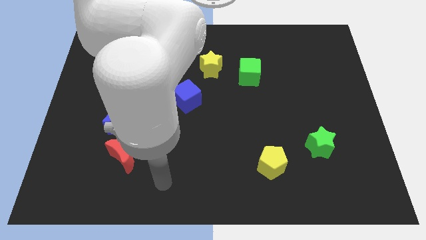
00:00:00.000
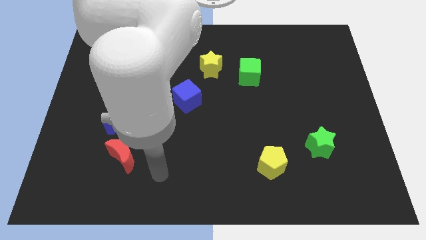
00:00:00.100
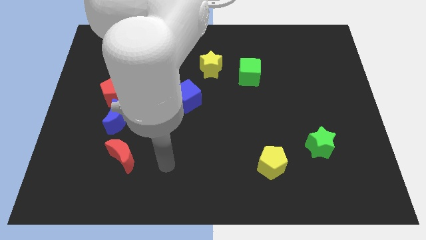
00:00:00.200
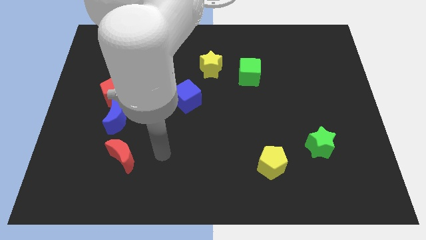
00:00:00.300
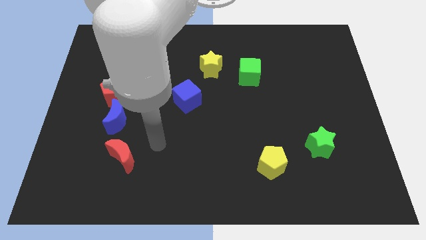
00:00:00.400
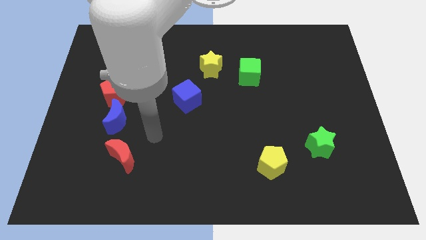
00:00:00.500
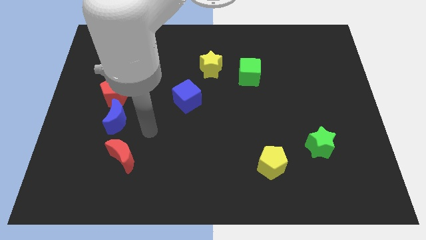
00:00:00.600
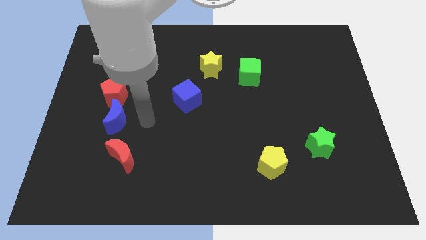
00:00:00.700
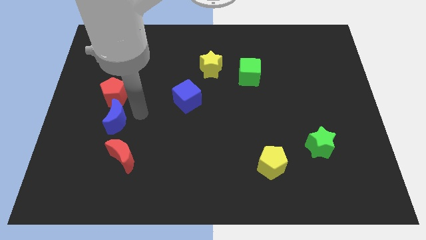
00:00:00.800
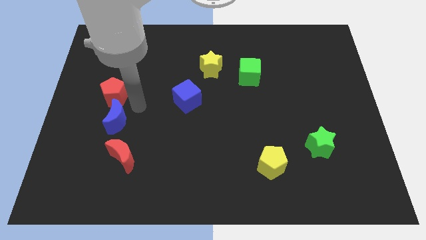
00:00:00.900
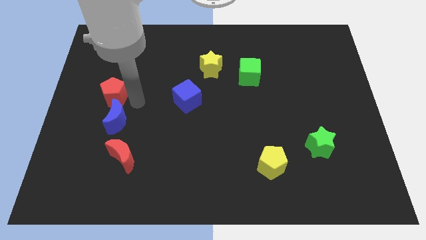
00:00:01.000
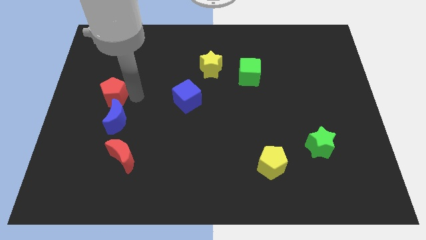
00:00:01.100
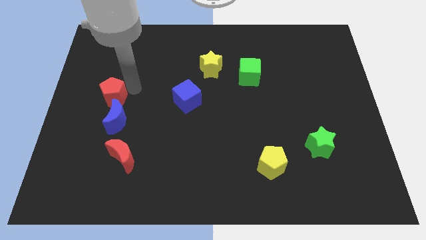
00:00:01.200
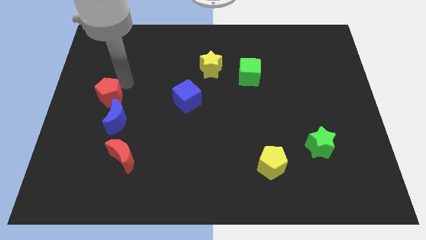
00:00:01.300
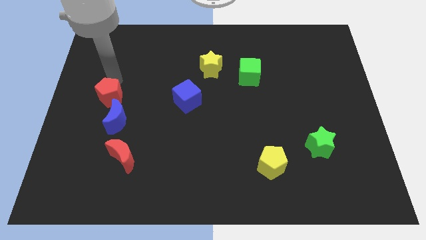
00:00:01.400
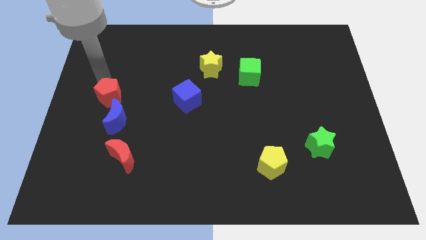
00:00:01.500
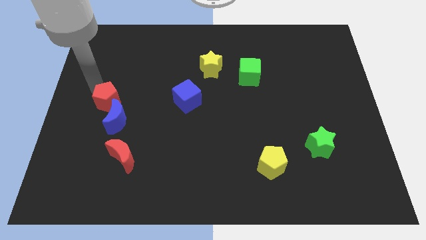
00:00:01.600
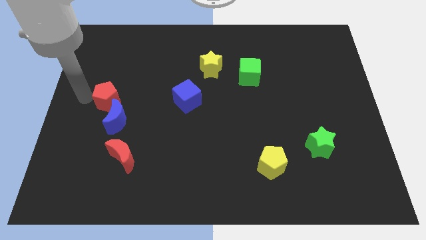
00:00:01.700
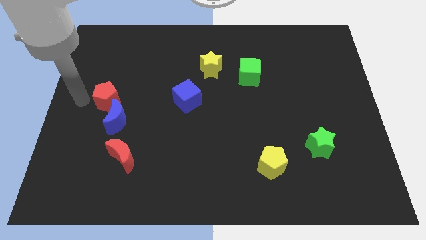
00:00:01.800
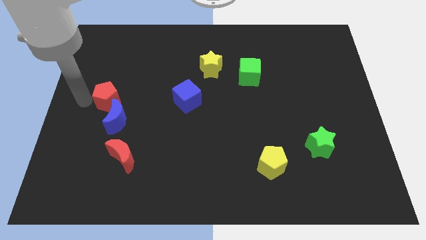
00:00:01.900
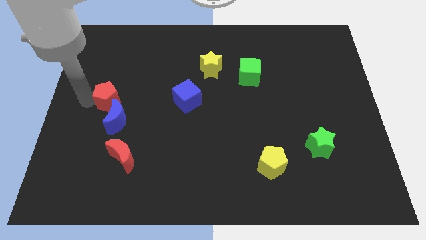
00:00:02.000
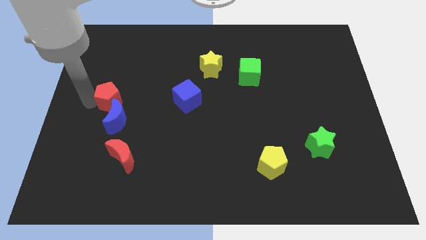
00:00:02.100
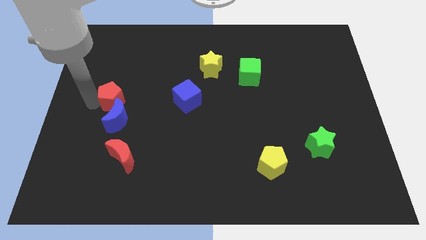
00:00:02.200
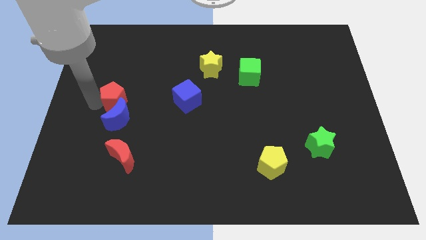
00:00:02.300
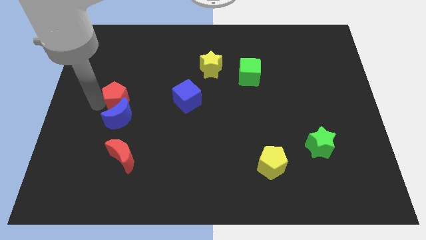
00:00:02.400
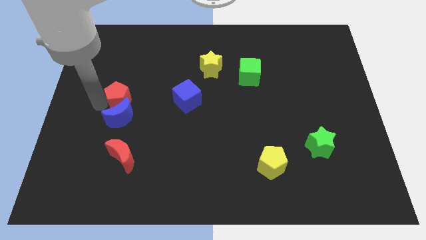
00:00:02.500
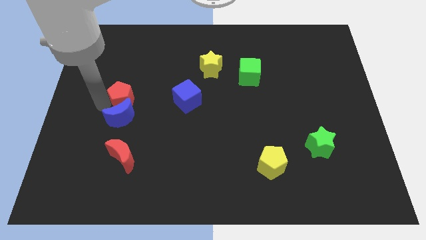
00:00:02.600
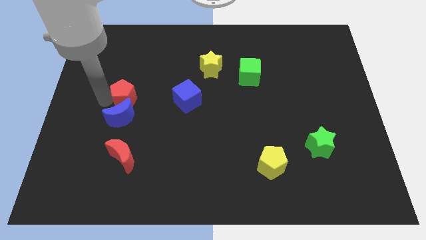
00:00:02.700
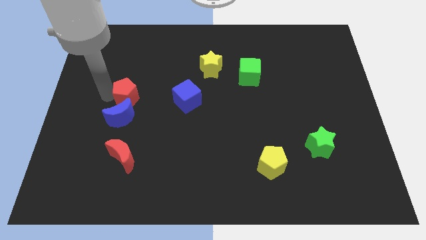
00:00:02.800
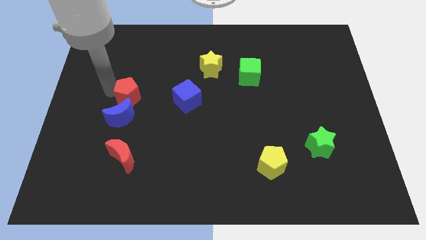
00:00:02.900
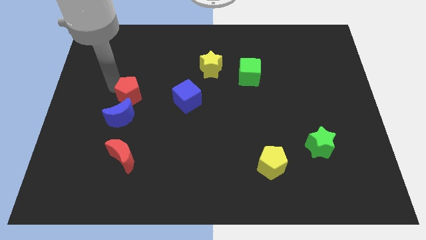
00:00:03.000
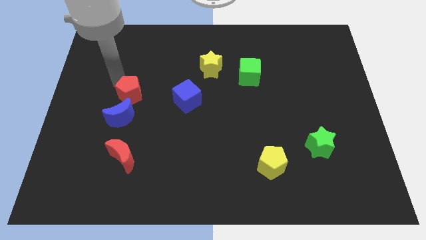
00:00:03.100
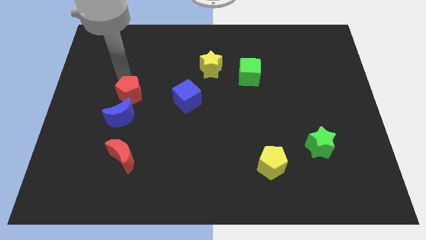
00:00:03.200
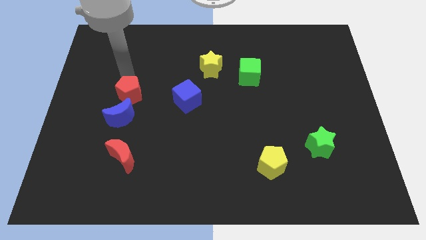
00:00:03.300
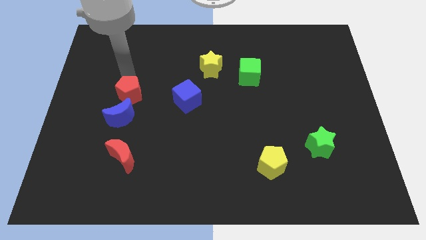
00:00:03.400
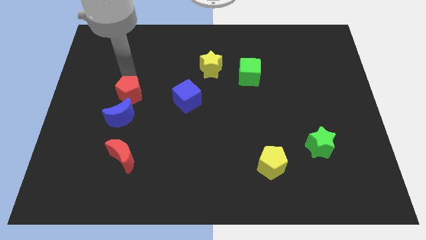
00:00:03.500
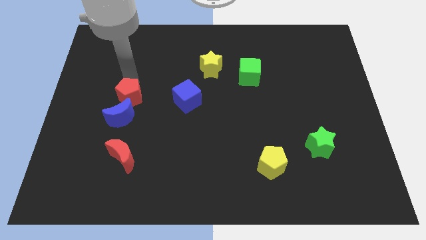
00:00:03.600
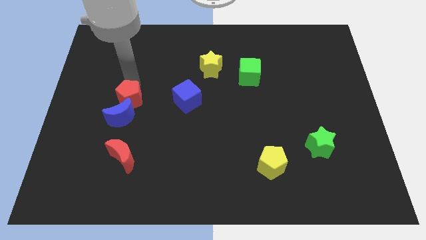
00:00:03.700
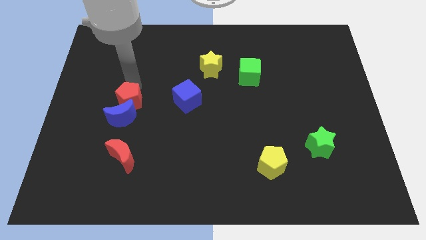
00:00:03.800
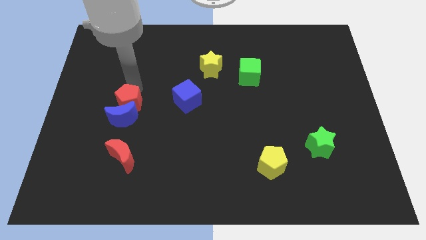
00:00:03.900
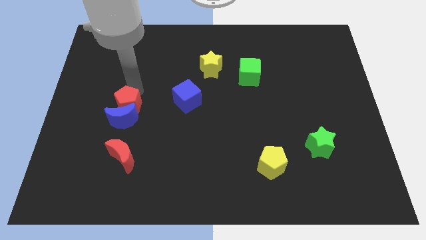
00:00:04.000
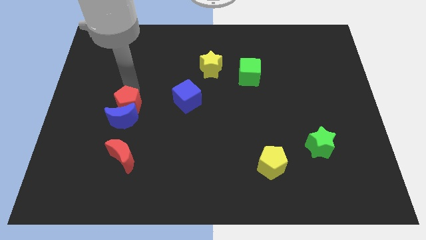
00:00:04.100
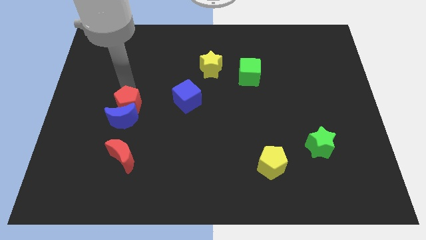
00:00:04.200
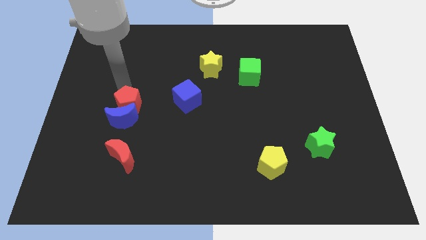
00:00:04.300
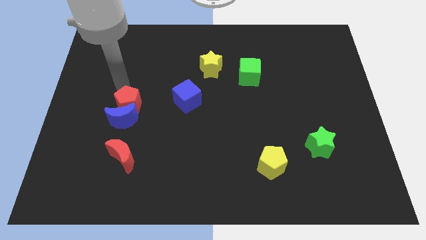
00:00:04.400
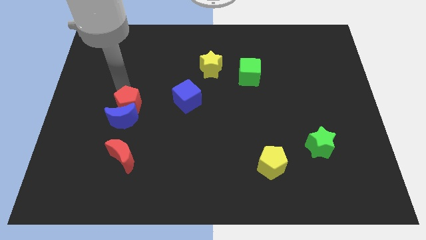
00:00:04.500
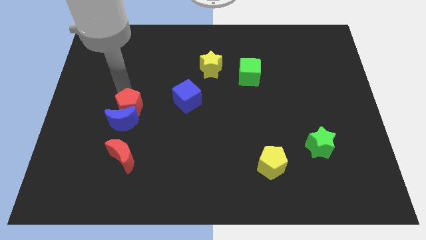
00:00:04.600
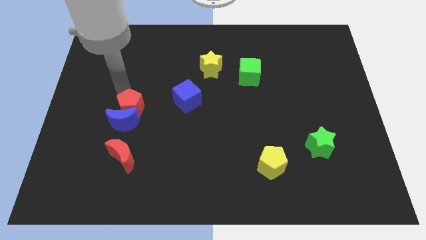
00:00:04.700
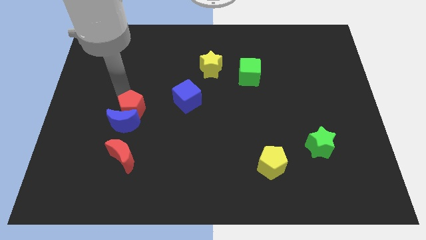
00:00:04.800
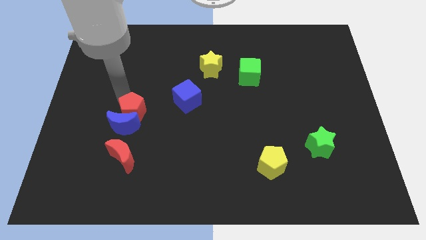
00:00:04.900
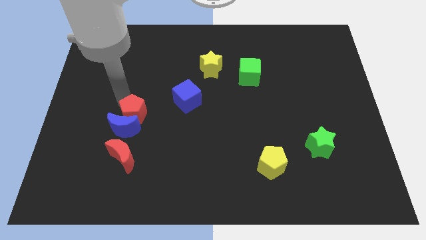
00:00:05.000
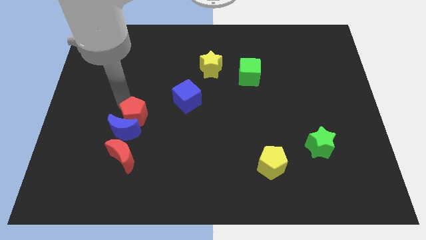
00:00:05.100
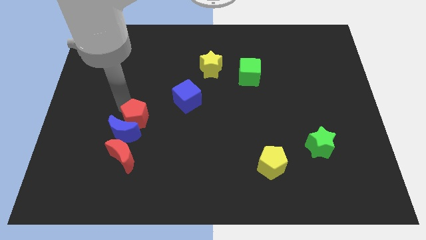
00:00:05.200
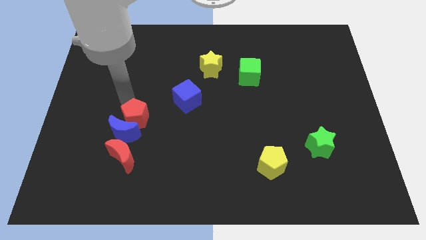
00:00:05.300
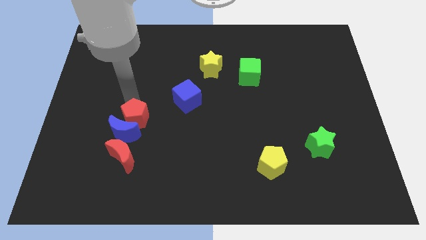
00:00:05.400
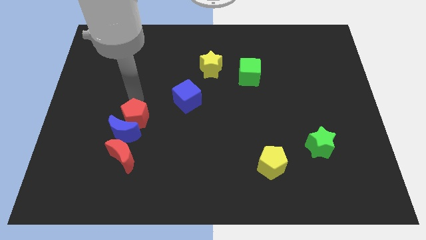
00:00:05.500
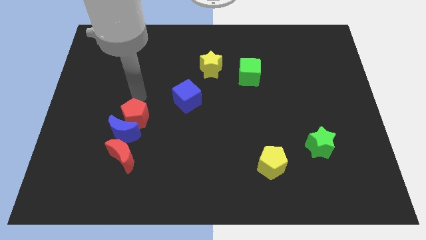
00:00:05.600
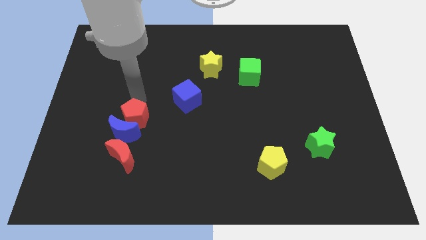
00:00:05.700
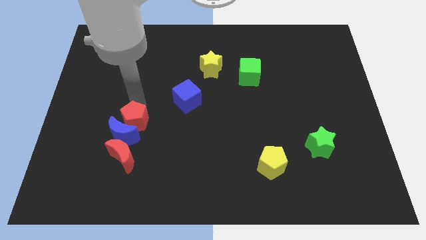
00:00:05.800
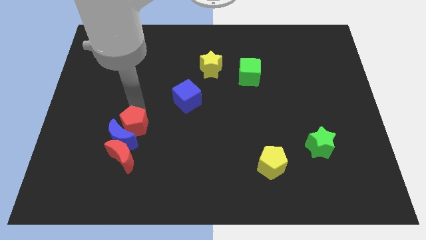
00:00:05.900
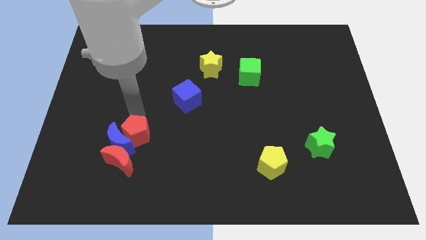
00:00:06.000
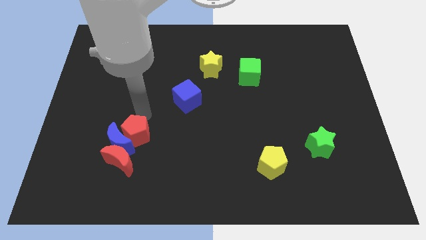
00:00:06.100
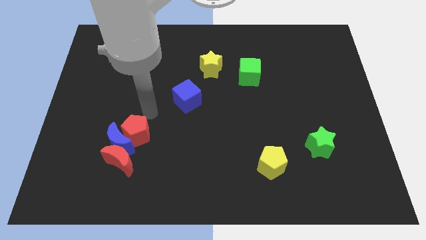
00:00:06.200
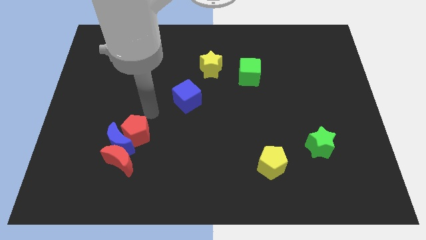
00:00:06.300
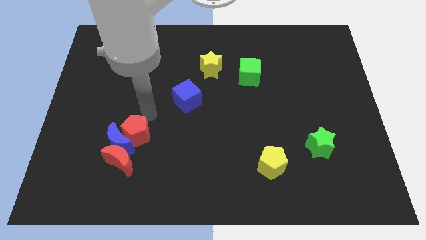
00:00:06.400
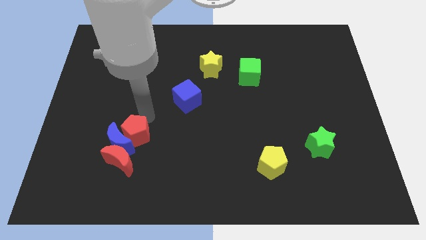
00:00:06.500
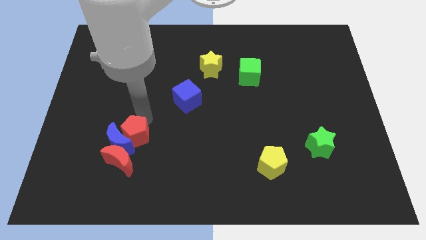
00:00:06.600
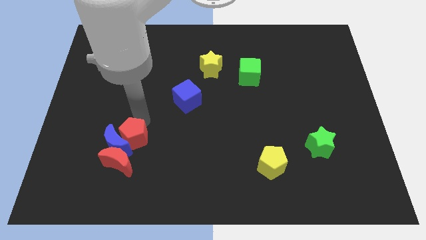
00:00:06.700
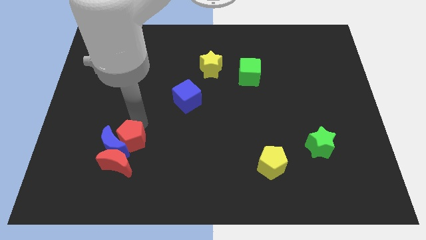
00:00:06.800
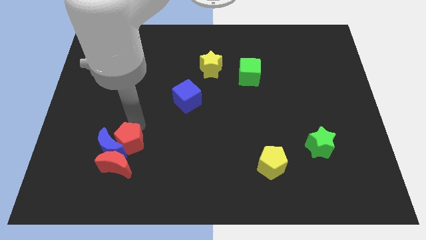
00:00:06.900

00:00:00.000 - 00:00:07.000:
move the red pentagon to the red moon

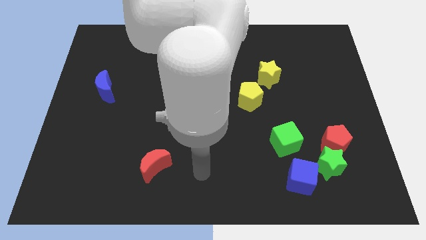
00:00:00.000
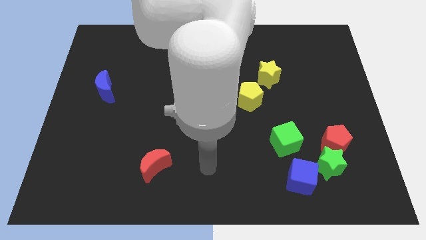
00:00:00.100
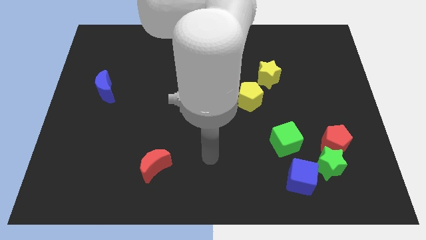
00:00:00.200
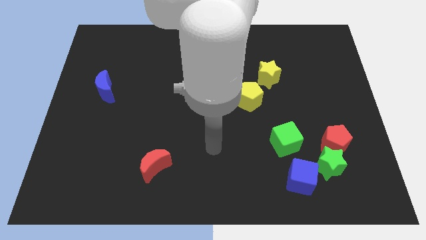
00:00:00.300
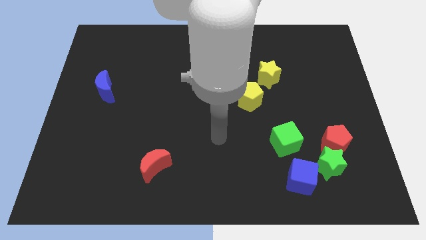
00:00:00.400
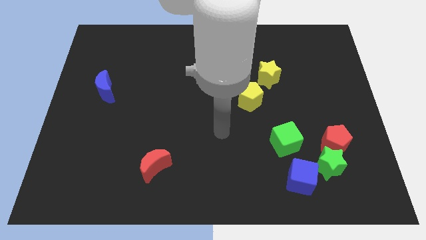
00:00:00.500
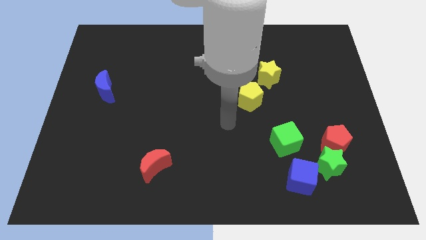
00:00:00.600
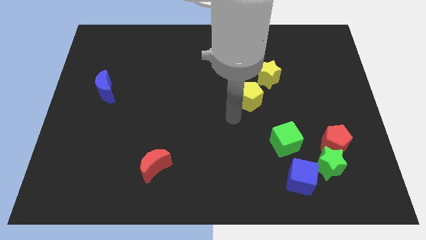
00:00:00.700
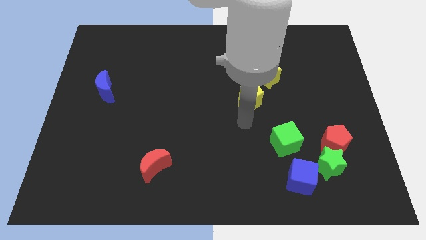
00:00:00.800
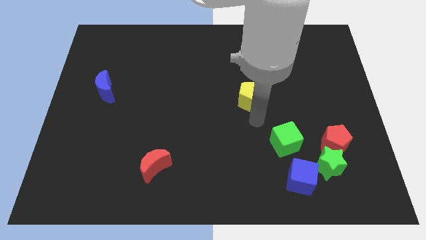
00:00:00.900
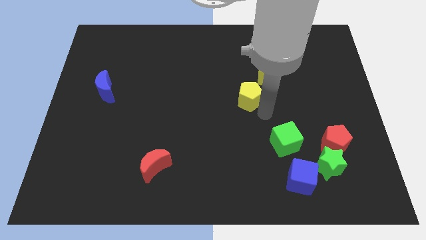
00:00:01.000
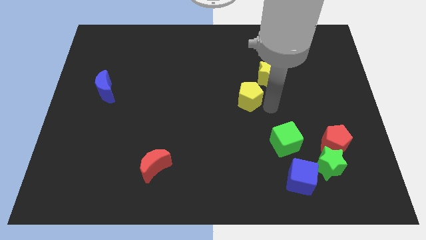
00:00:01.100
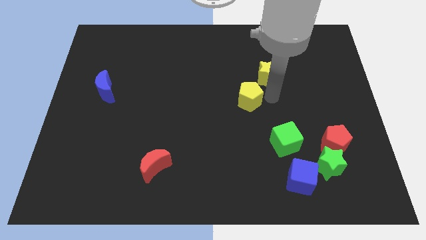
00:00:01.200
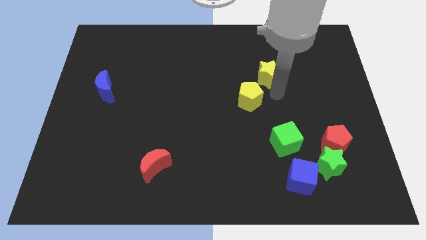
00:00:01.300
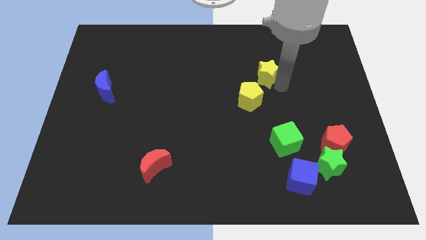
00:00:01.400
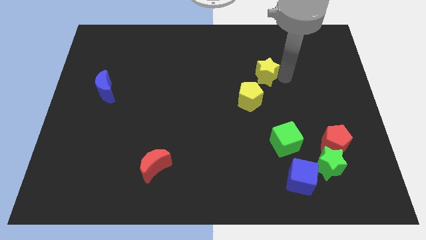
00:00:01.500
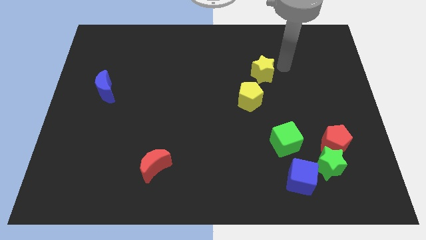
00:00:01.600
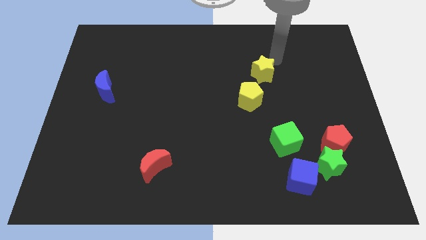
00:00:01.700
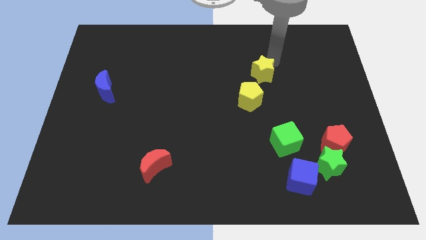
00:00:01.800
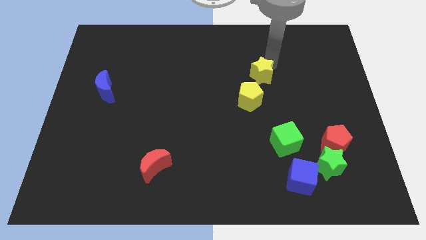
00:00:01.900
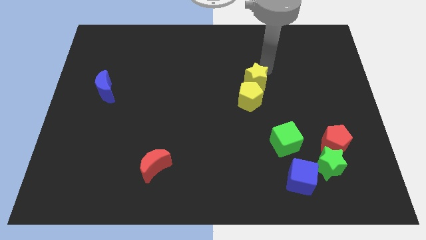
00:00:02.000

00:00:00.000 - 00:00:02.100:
put the yellow star close to the yellow pentagon
